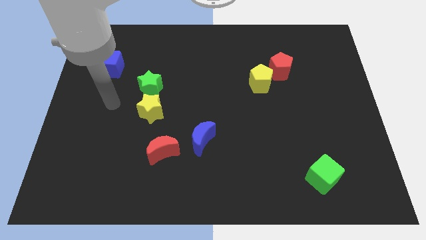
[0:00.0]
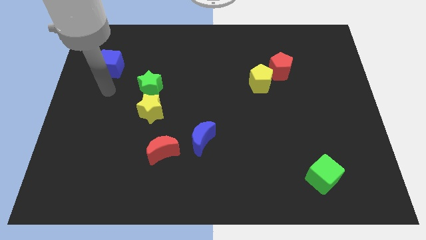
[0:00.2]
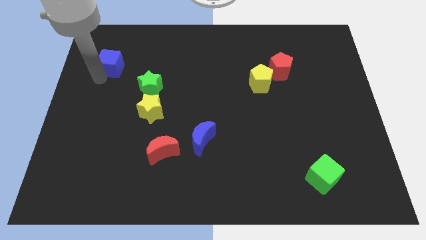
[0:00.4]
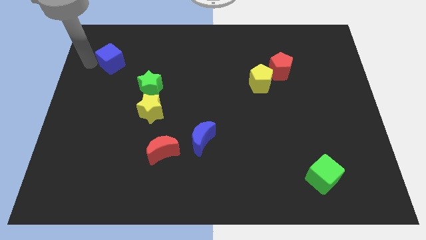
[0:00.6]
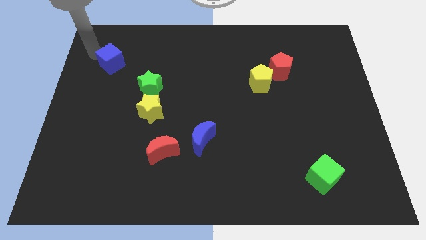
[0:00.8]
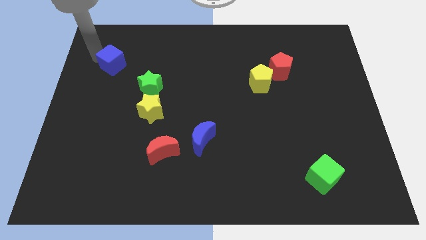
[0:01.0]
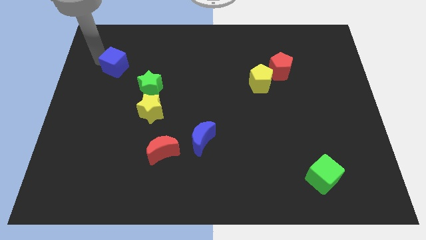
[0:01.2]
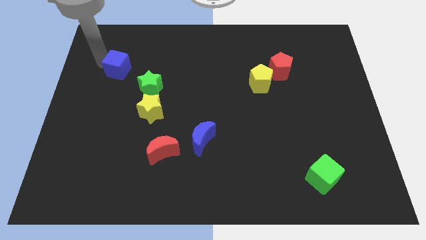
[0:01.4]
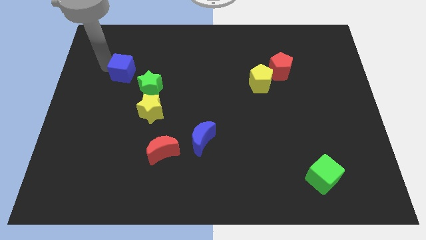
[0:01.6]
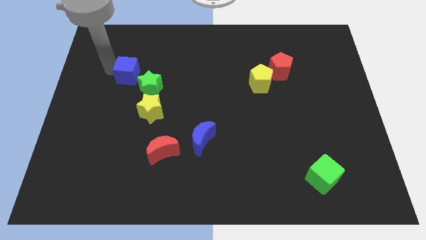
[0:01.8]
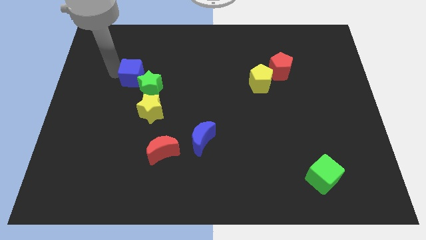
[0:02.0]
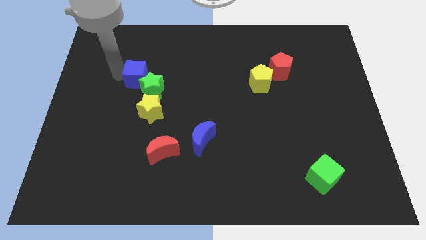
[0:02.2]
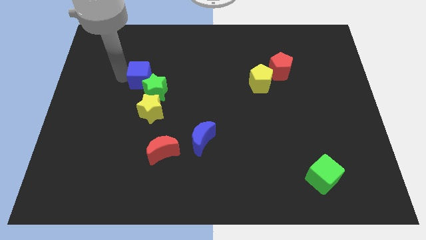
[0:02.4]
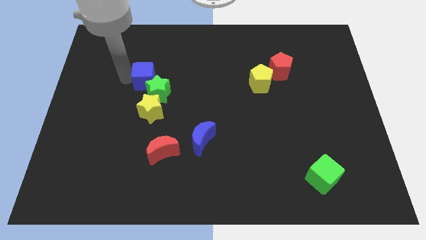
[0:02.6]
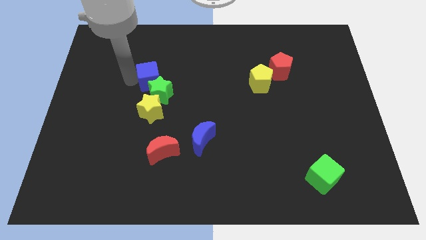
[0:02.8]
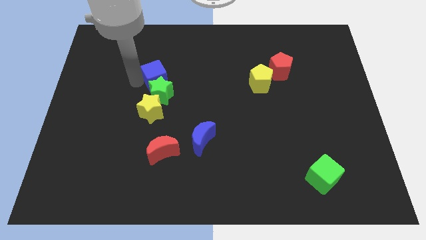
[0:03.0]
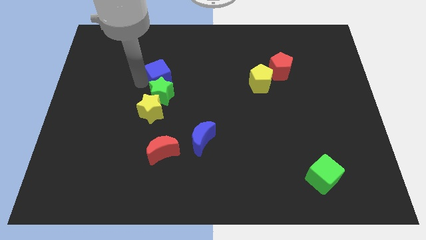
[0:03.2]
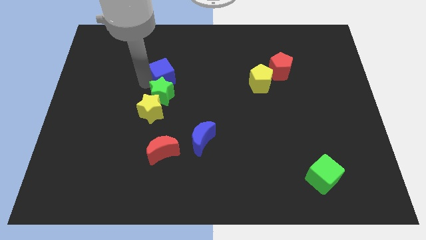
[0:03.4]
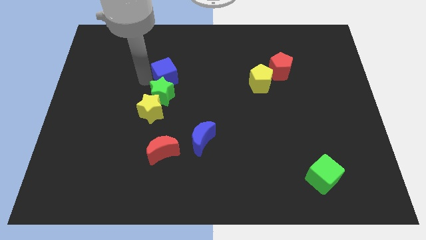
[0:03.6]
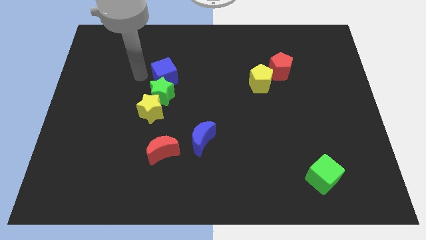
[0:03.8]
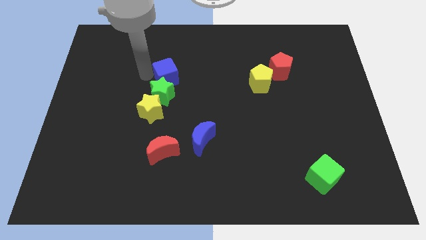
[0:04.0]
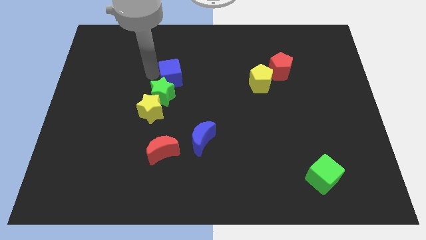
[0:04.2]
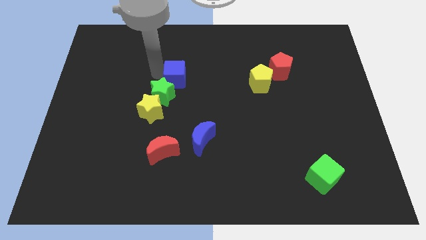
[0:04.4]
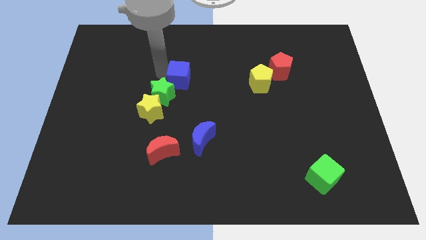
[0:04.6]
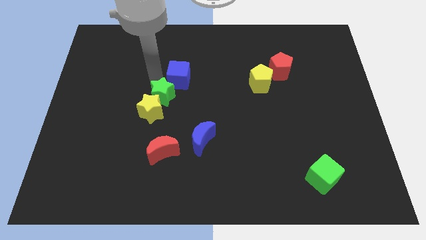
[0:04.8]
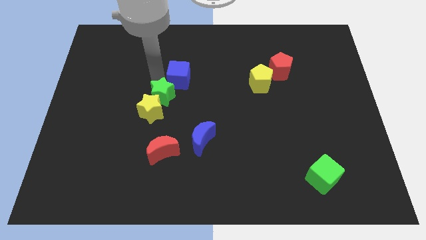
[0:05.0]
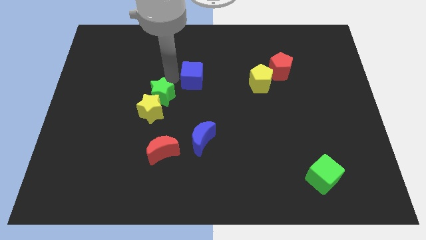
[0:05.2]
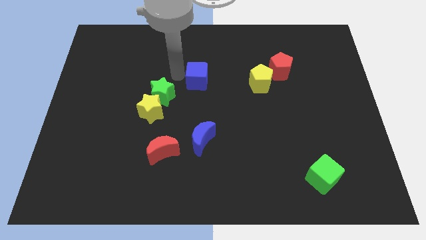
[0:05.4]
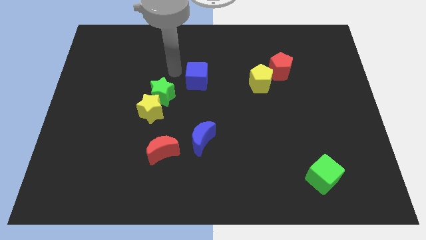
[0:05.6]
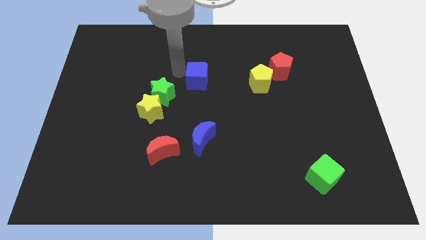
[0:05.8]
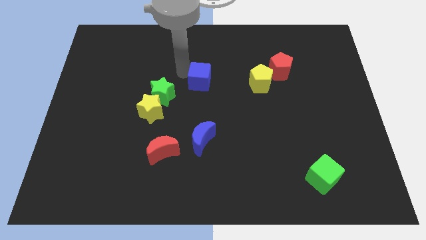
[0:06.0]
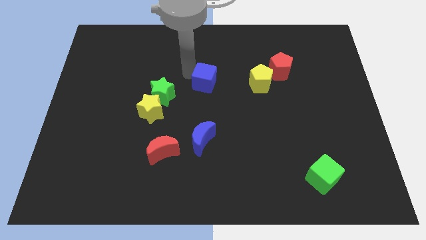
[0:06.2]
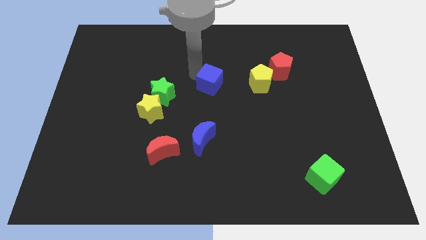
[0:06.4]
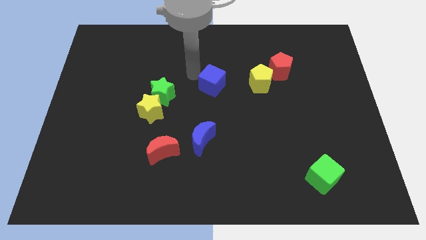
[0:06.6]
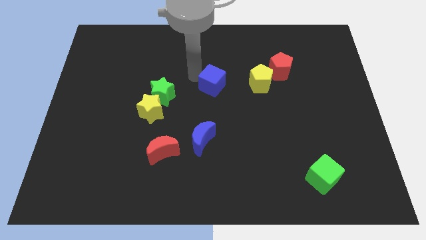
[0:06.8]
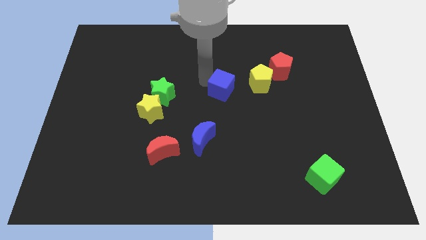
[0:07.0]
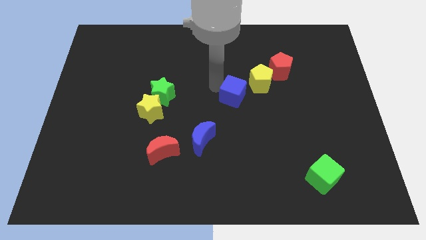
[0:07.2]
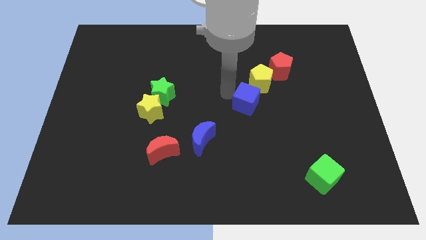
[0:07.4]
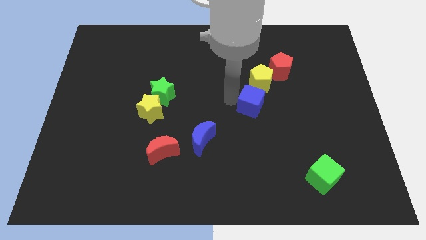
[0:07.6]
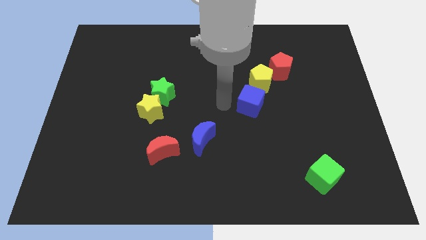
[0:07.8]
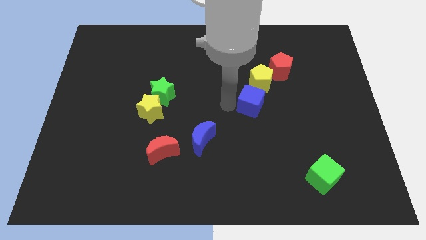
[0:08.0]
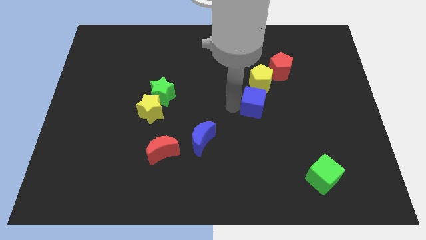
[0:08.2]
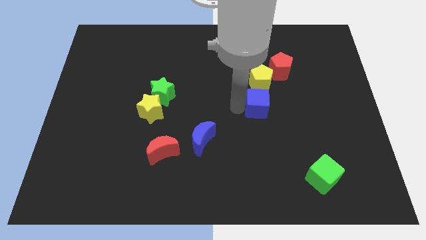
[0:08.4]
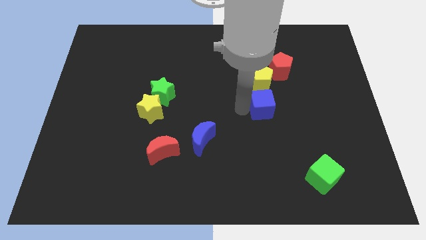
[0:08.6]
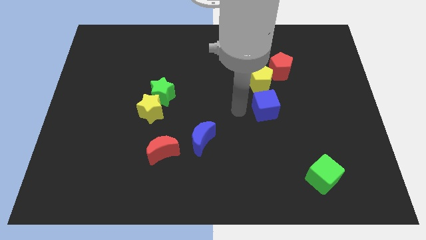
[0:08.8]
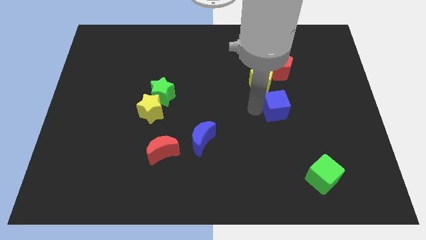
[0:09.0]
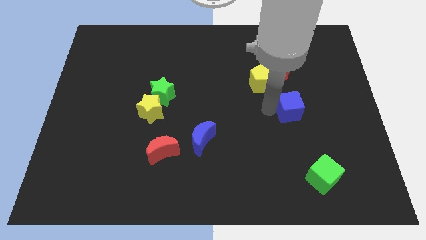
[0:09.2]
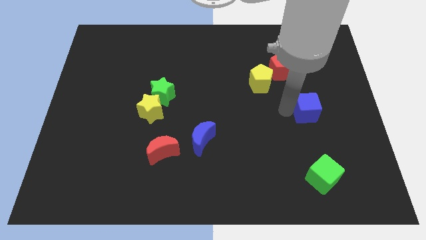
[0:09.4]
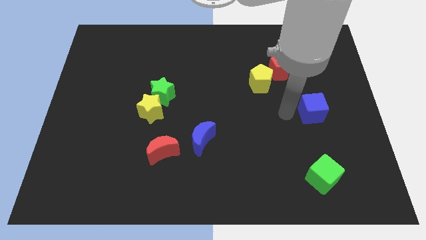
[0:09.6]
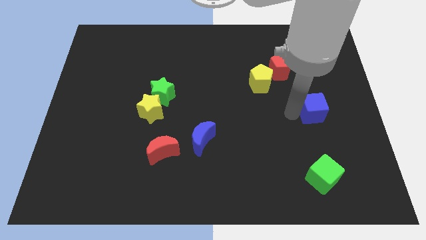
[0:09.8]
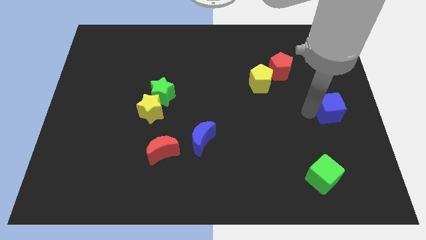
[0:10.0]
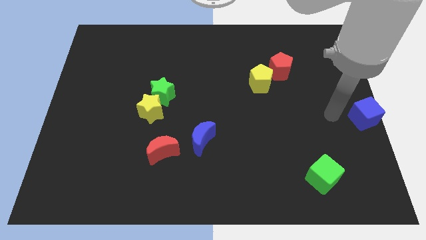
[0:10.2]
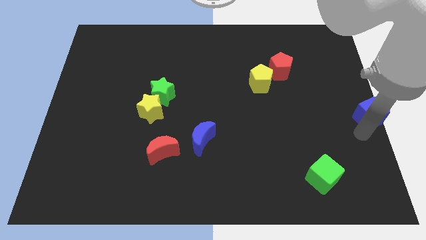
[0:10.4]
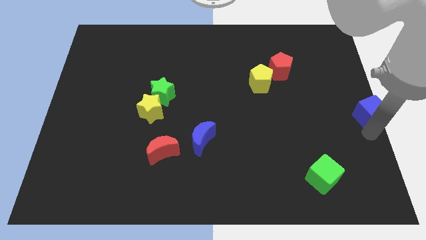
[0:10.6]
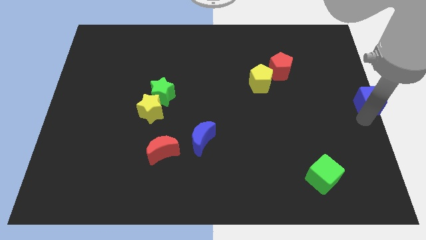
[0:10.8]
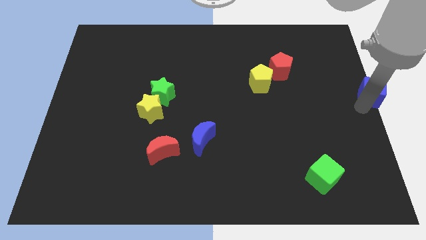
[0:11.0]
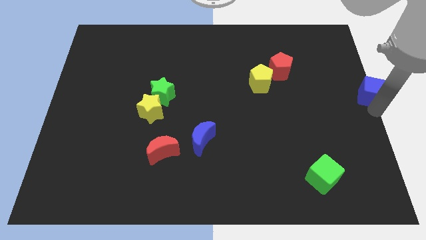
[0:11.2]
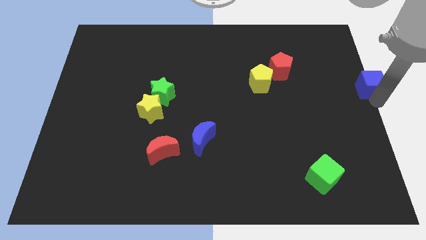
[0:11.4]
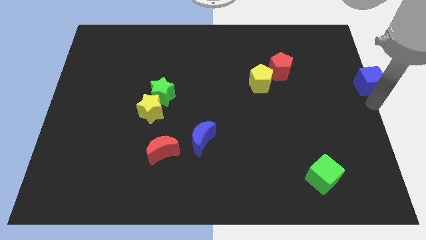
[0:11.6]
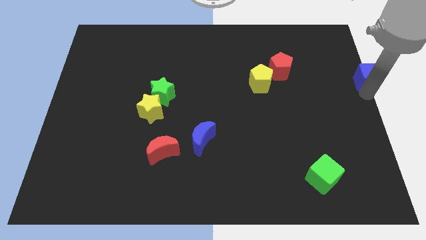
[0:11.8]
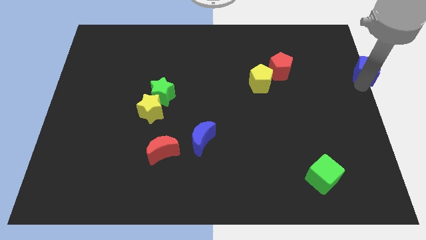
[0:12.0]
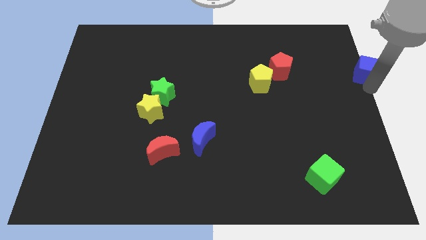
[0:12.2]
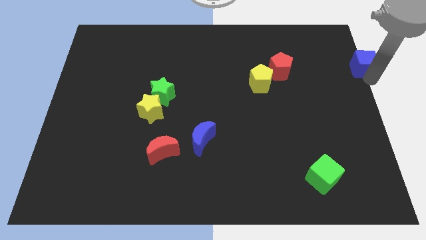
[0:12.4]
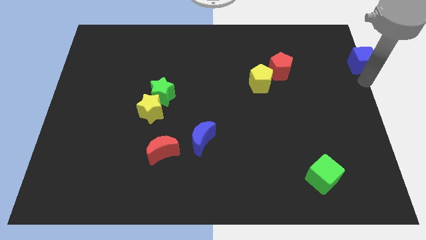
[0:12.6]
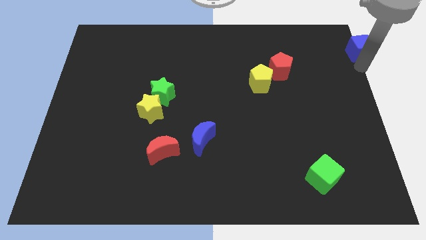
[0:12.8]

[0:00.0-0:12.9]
put the blue cube to the top right corner

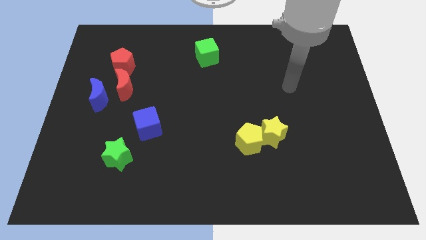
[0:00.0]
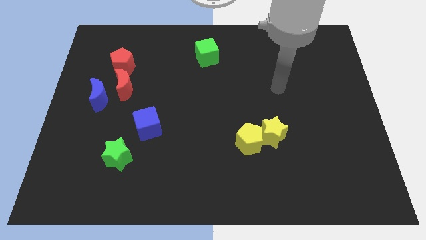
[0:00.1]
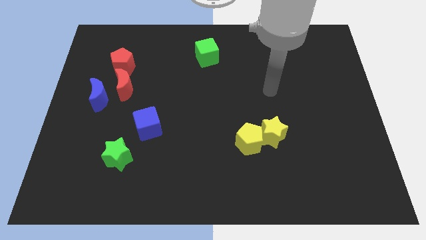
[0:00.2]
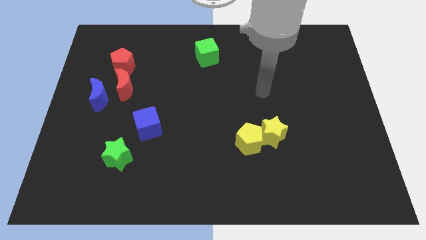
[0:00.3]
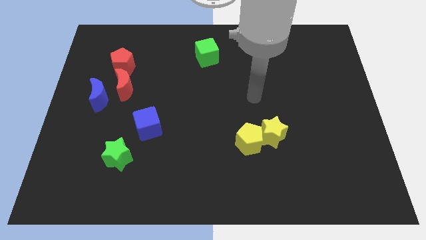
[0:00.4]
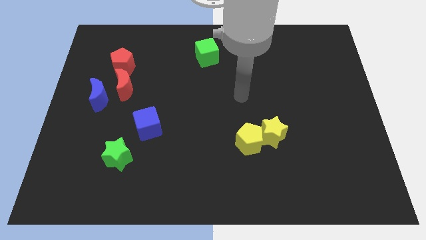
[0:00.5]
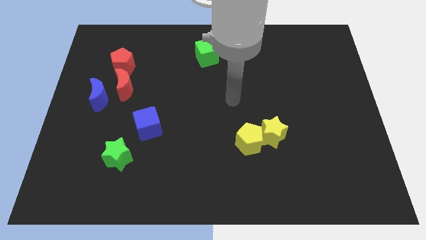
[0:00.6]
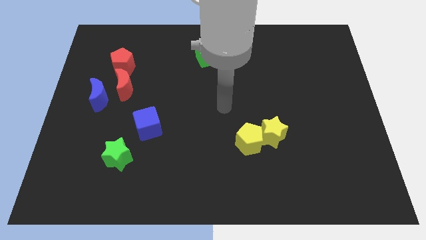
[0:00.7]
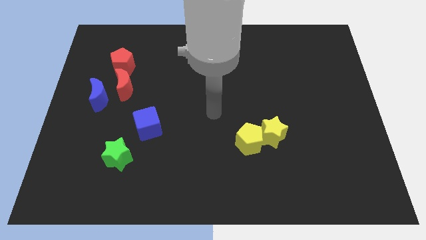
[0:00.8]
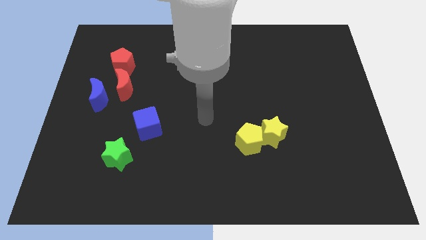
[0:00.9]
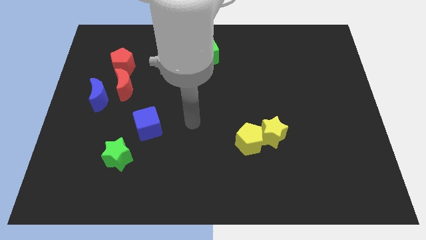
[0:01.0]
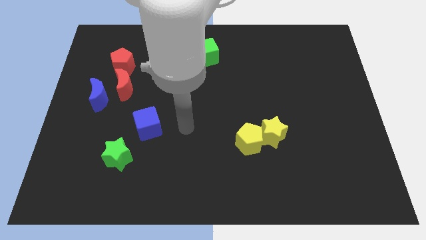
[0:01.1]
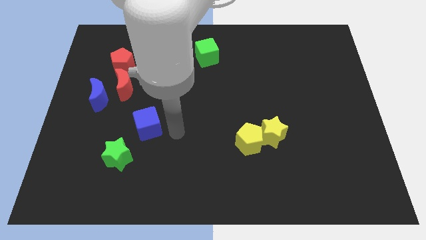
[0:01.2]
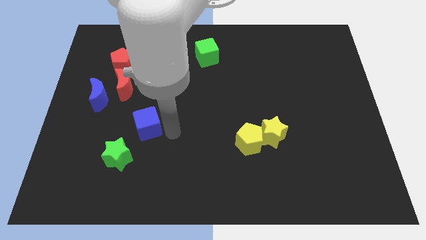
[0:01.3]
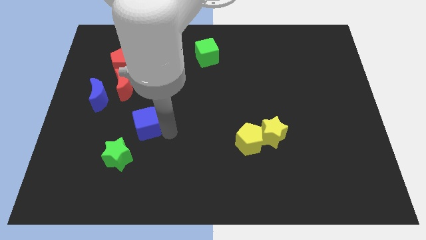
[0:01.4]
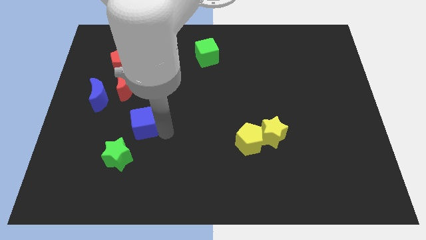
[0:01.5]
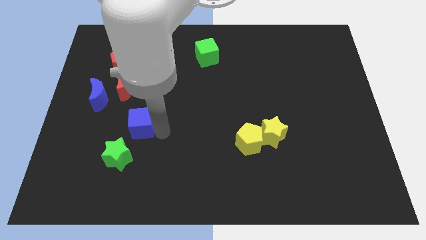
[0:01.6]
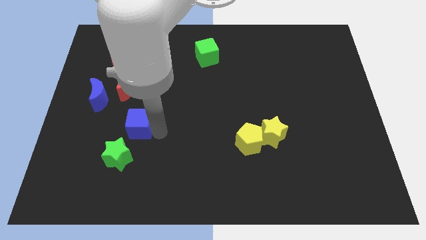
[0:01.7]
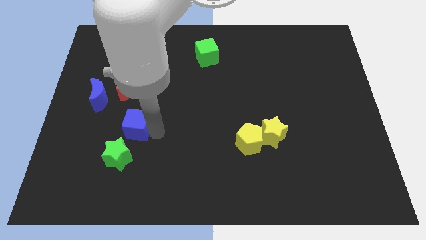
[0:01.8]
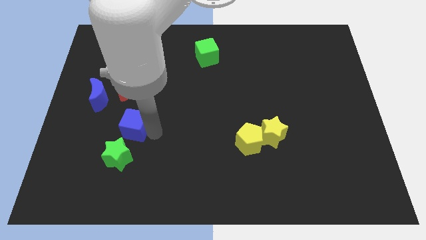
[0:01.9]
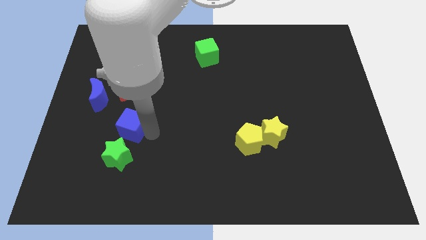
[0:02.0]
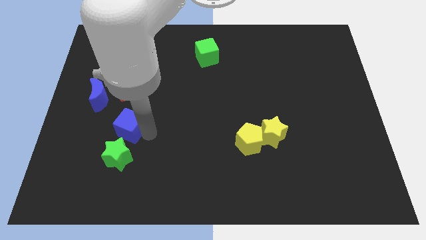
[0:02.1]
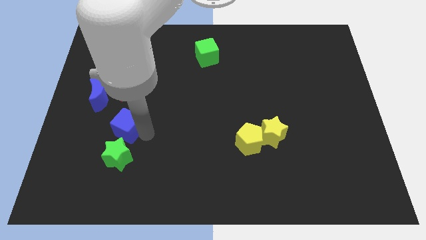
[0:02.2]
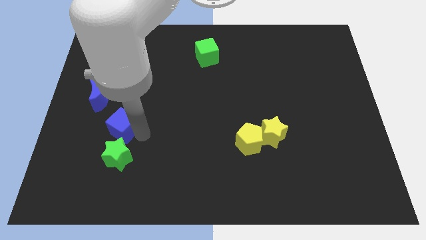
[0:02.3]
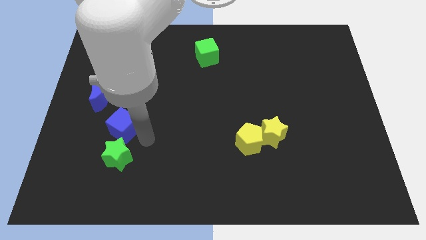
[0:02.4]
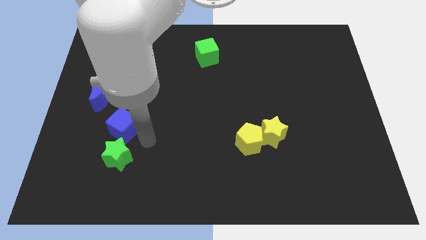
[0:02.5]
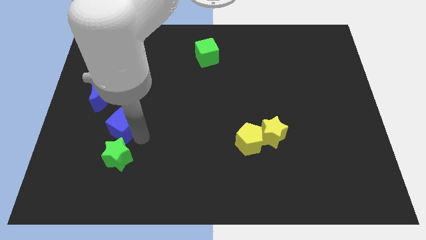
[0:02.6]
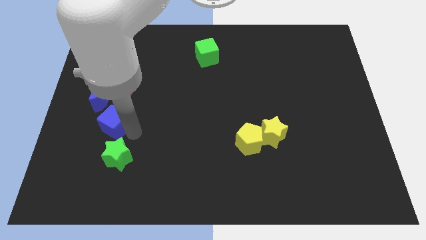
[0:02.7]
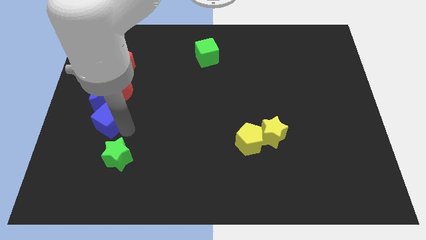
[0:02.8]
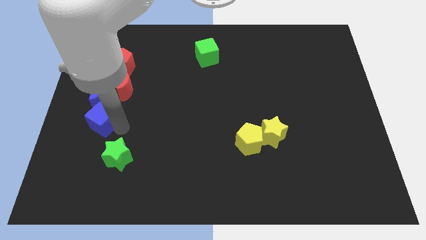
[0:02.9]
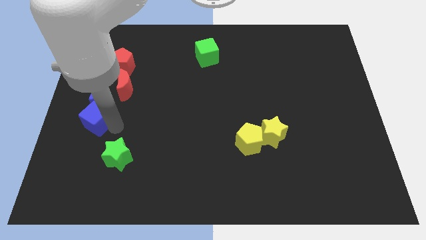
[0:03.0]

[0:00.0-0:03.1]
push the blue cube to the left side
